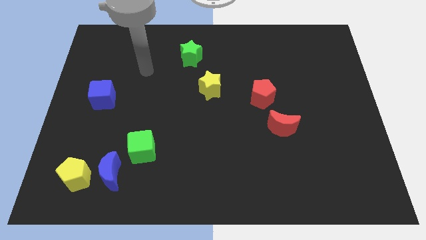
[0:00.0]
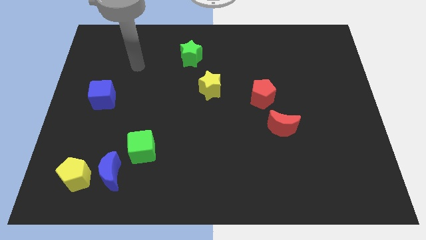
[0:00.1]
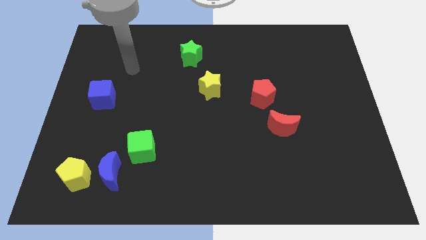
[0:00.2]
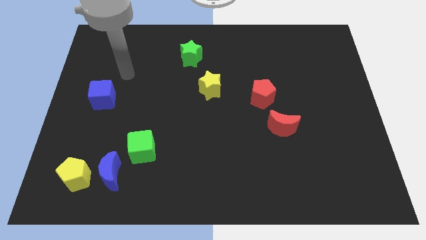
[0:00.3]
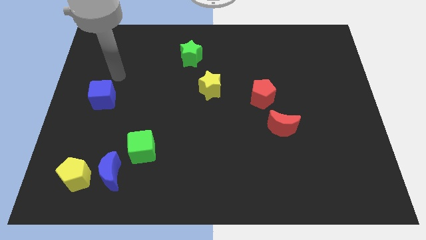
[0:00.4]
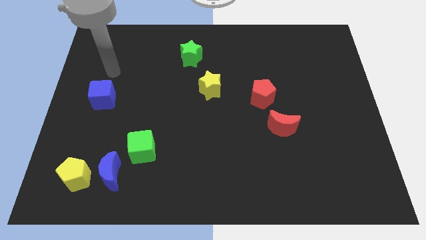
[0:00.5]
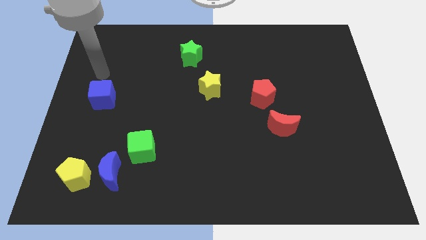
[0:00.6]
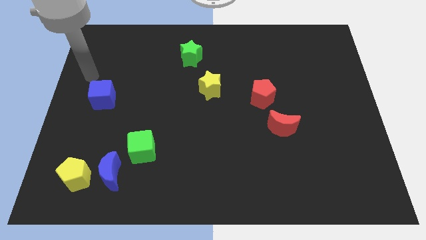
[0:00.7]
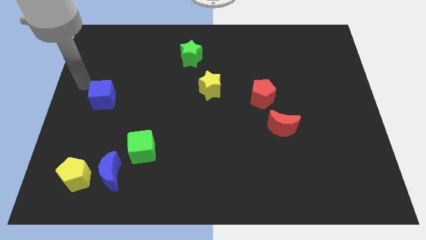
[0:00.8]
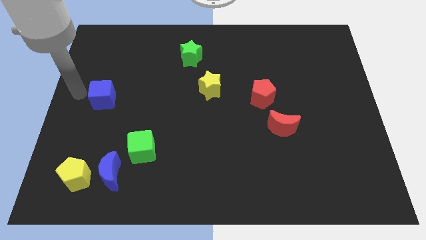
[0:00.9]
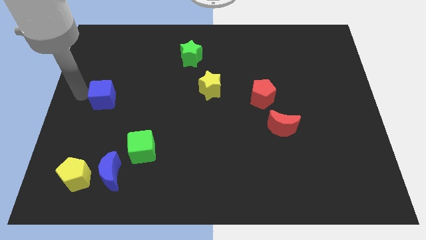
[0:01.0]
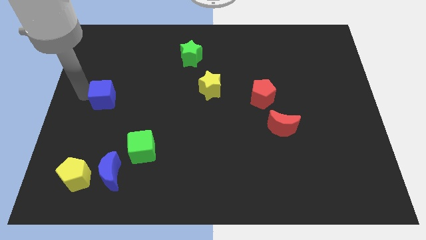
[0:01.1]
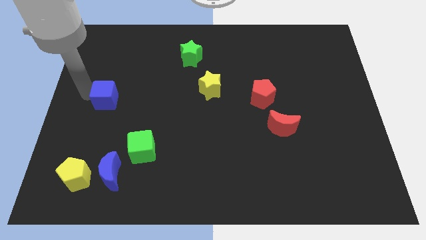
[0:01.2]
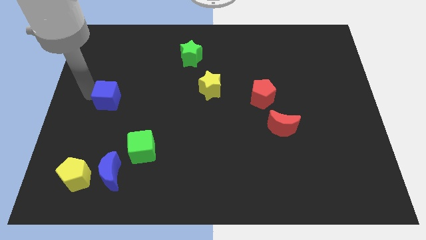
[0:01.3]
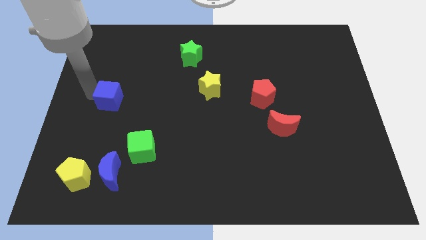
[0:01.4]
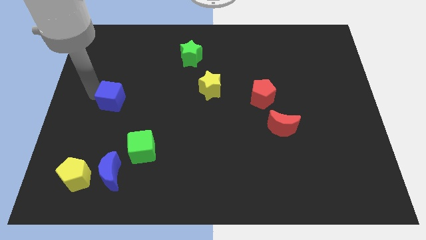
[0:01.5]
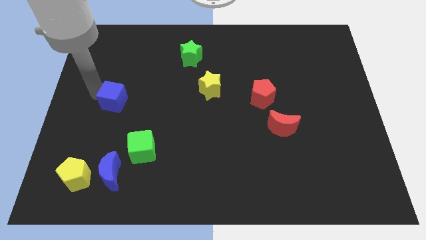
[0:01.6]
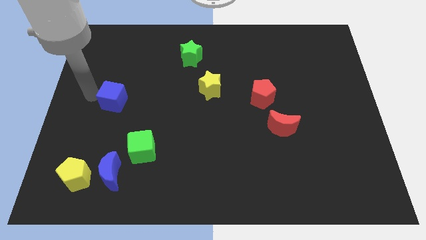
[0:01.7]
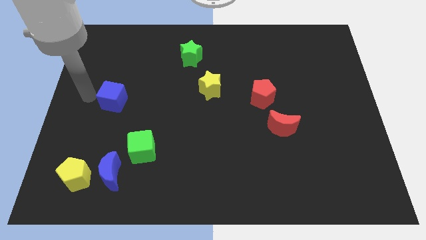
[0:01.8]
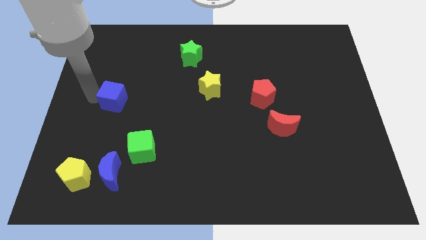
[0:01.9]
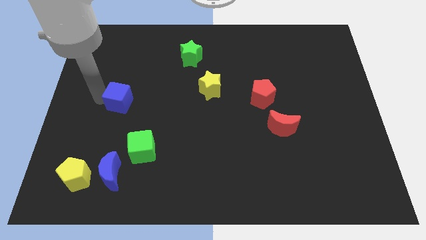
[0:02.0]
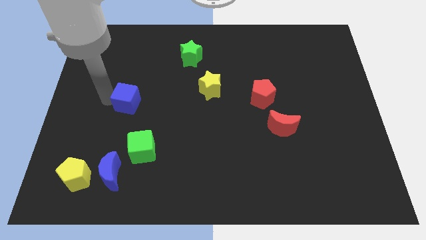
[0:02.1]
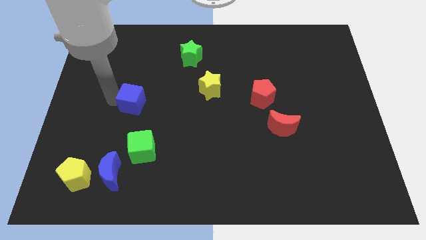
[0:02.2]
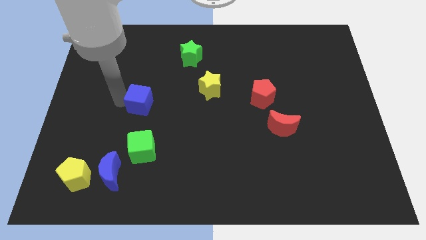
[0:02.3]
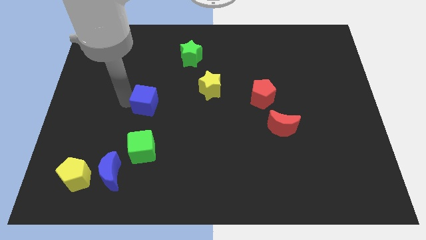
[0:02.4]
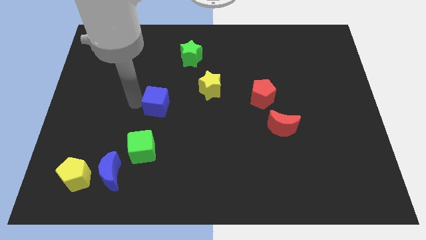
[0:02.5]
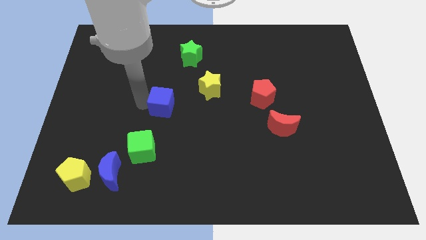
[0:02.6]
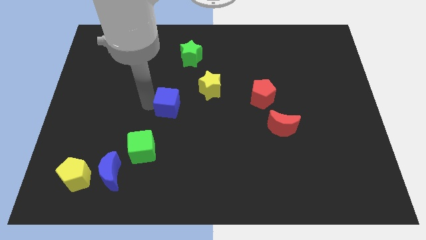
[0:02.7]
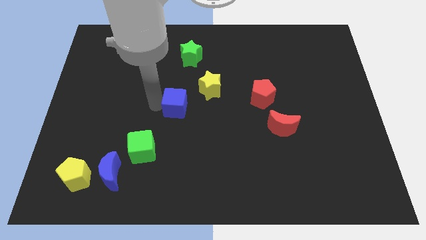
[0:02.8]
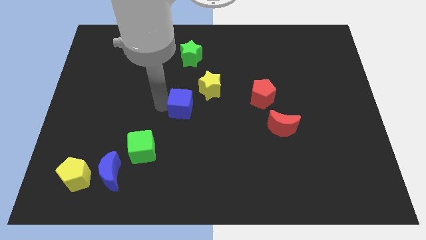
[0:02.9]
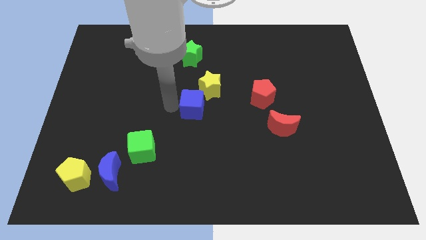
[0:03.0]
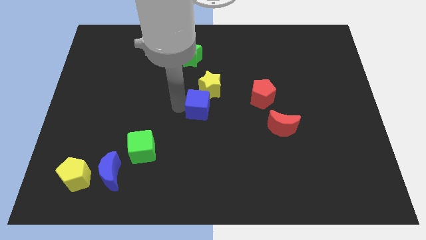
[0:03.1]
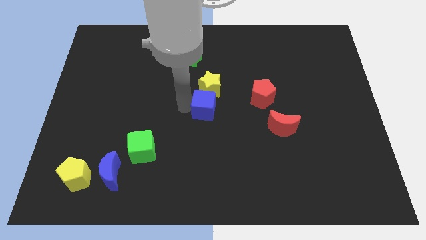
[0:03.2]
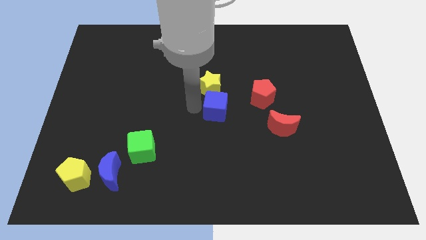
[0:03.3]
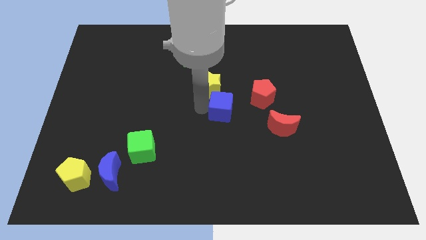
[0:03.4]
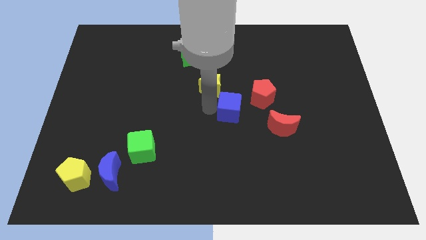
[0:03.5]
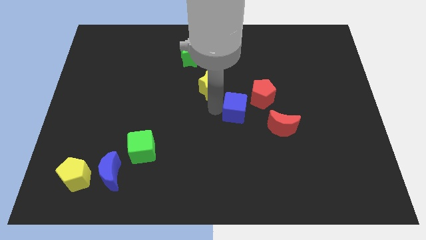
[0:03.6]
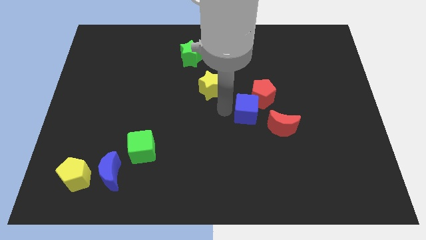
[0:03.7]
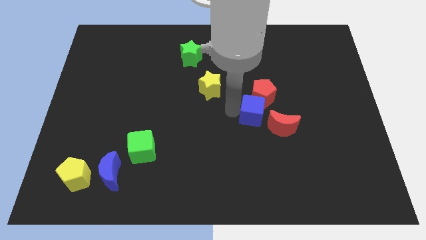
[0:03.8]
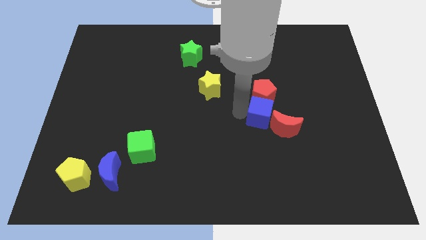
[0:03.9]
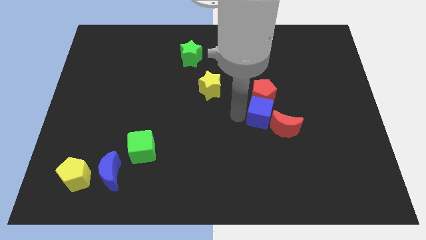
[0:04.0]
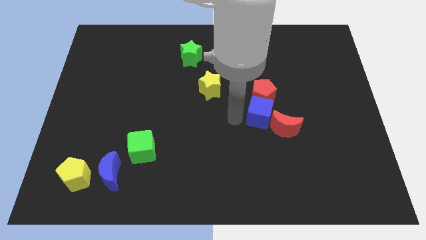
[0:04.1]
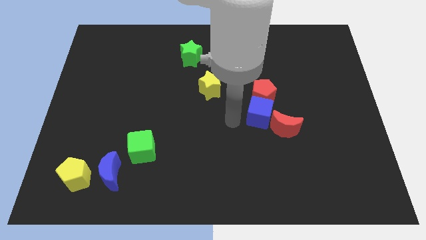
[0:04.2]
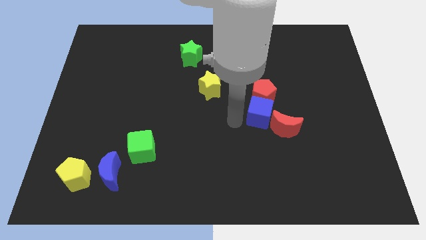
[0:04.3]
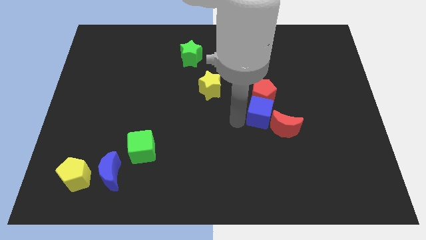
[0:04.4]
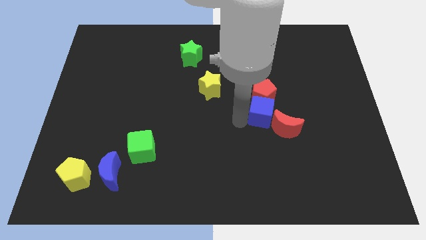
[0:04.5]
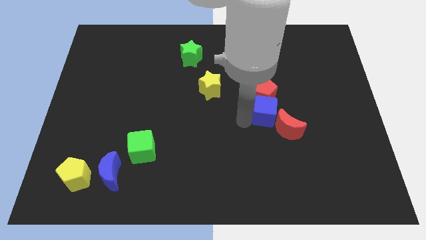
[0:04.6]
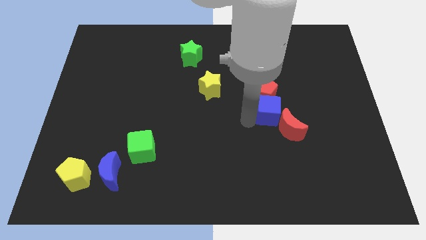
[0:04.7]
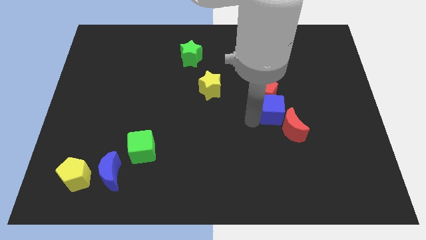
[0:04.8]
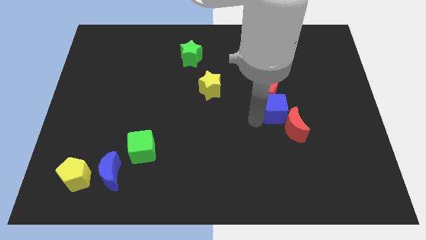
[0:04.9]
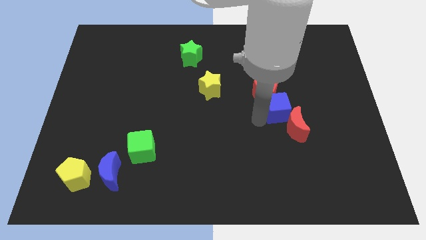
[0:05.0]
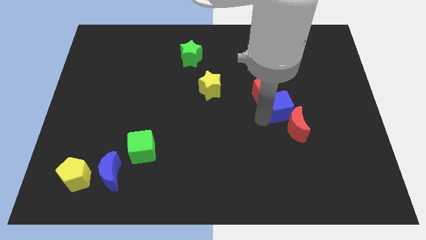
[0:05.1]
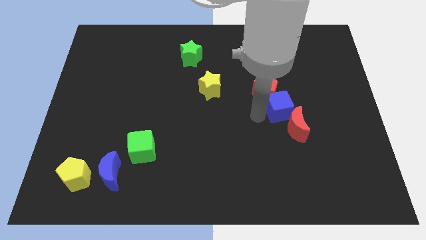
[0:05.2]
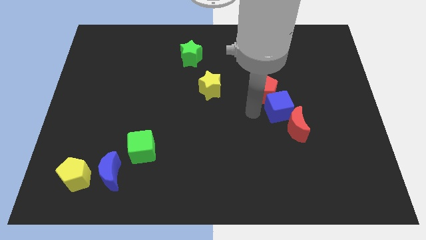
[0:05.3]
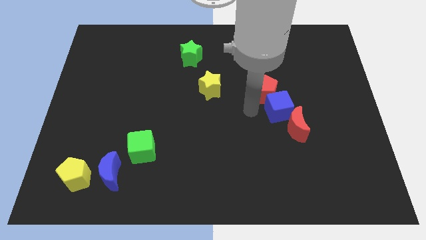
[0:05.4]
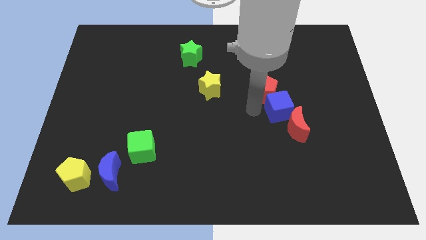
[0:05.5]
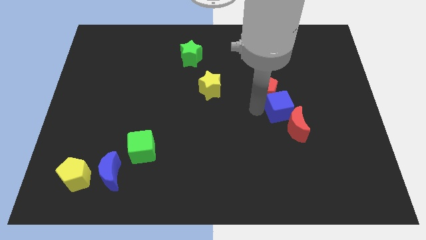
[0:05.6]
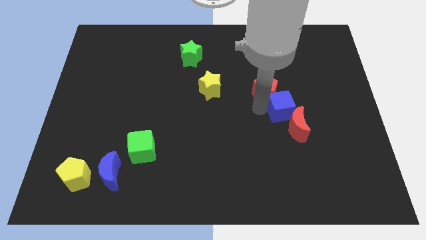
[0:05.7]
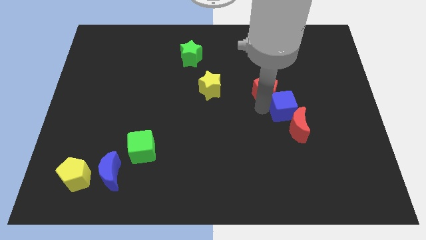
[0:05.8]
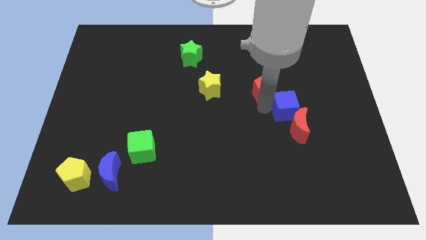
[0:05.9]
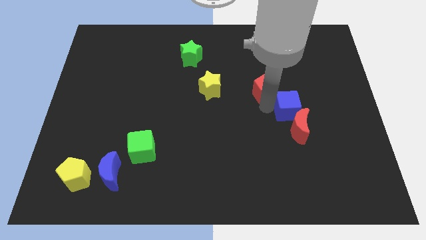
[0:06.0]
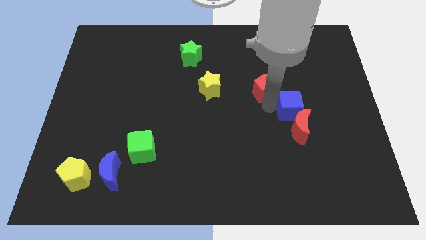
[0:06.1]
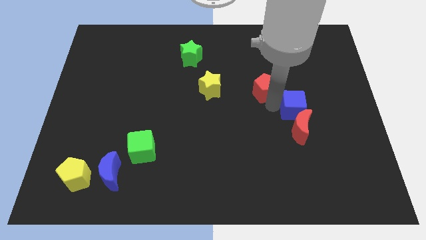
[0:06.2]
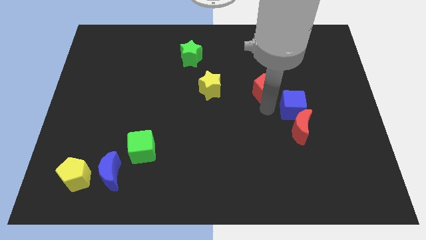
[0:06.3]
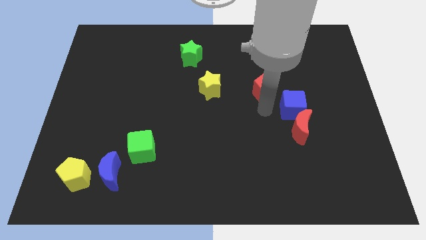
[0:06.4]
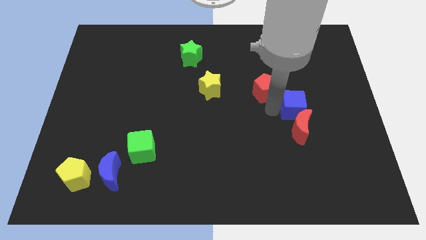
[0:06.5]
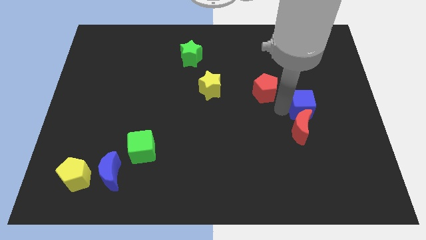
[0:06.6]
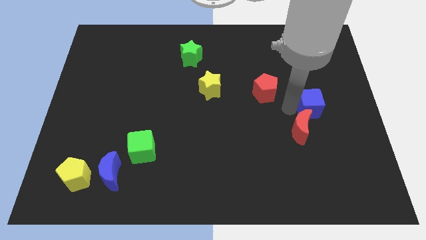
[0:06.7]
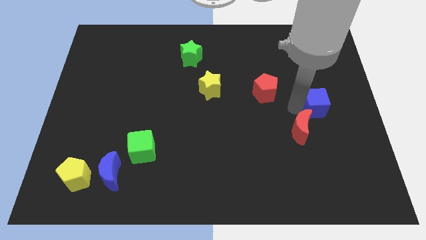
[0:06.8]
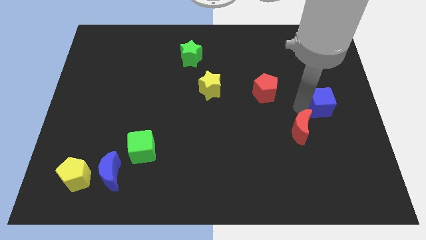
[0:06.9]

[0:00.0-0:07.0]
push the blue cube to the right side of the board
